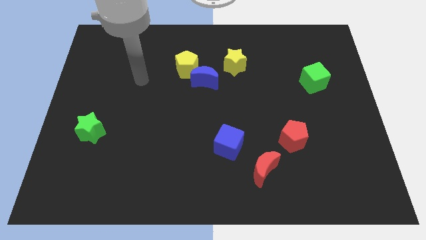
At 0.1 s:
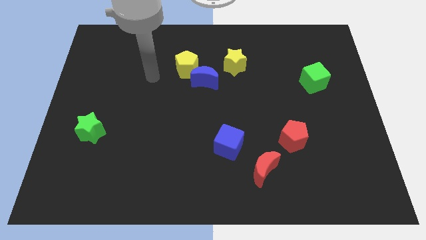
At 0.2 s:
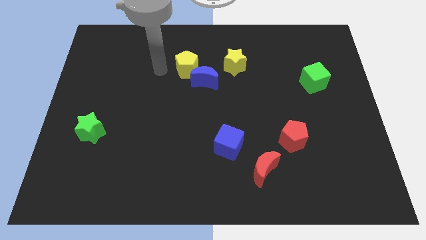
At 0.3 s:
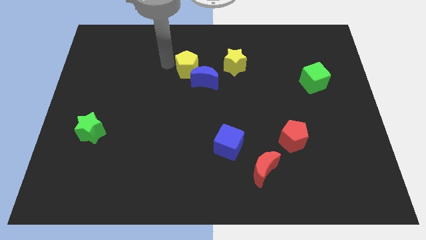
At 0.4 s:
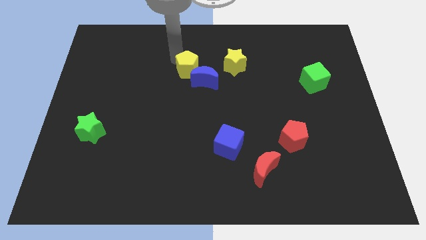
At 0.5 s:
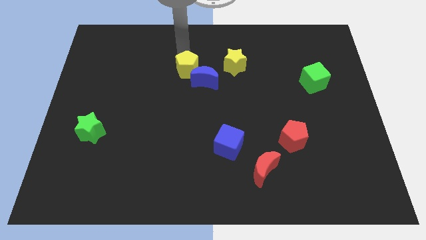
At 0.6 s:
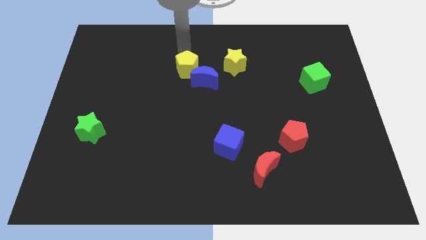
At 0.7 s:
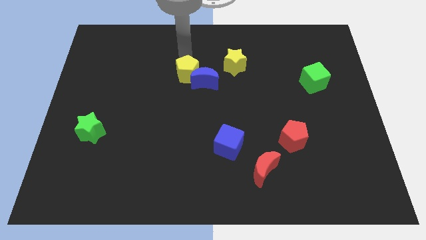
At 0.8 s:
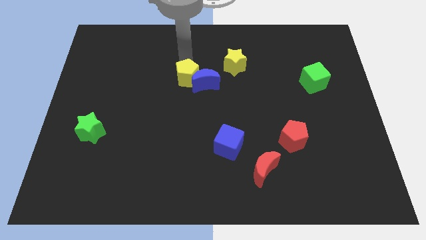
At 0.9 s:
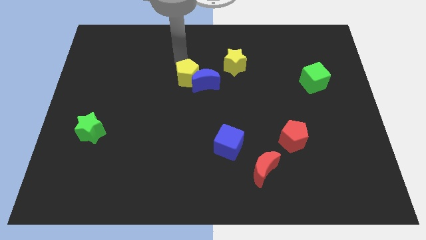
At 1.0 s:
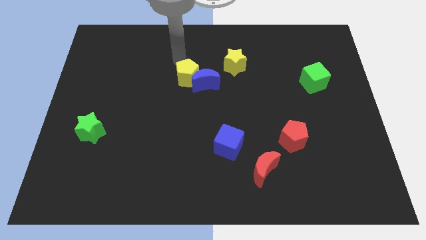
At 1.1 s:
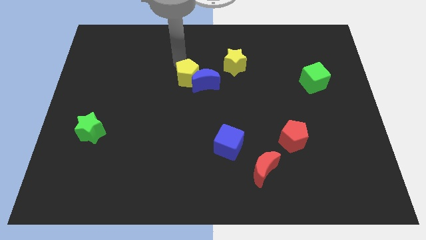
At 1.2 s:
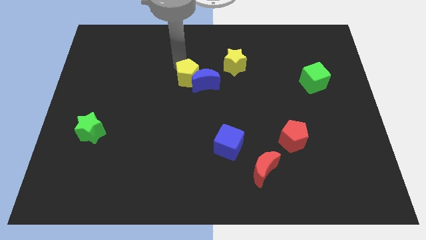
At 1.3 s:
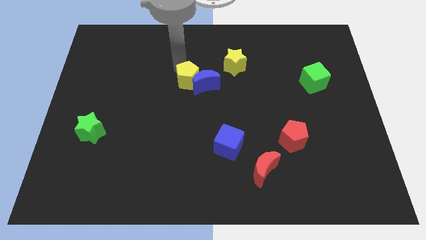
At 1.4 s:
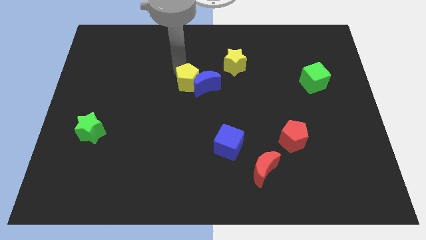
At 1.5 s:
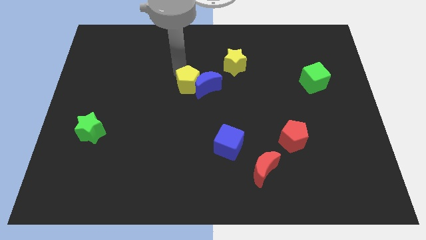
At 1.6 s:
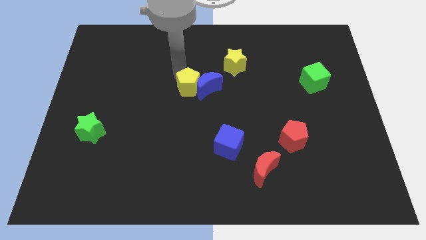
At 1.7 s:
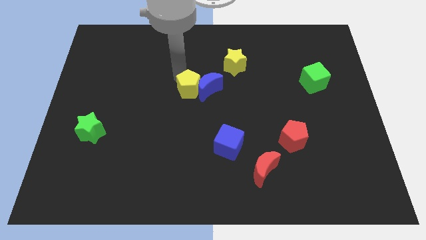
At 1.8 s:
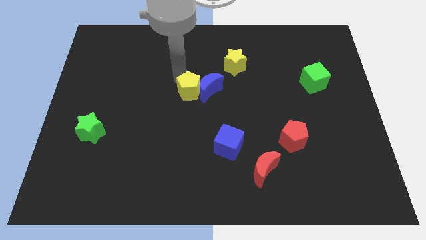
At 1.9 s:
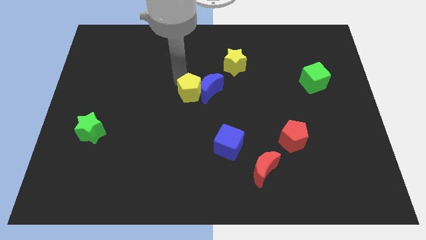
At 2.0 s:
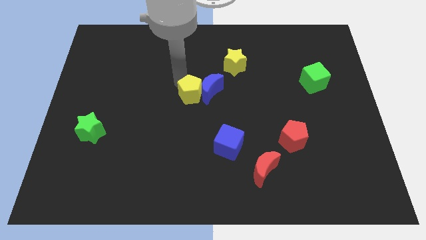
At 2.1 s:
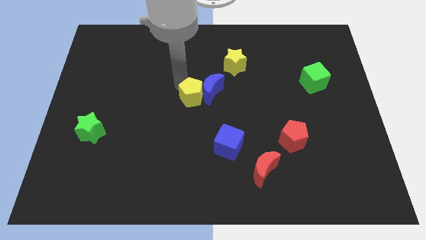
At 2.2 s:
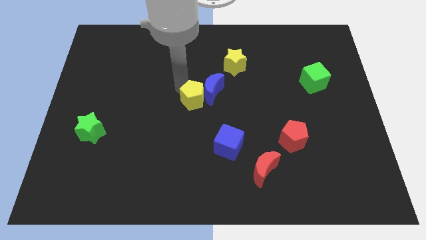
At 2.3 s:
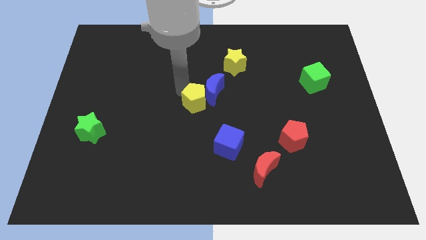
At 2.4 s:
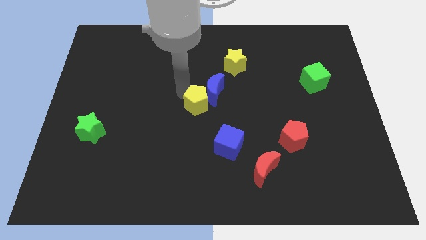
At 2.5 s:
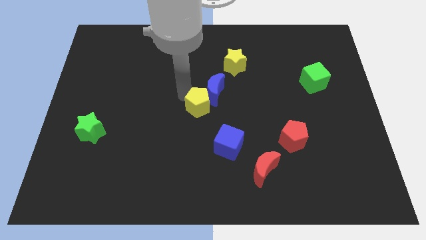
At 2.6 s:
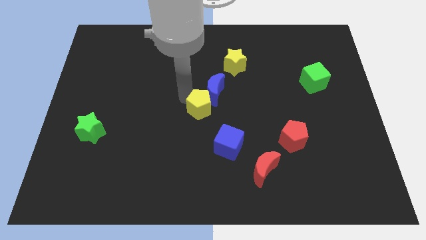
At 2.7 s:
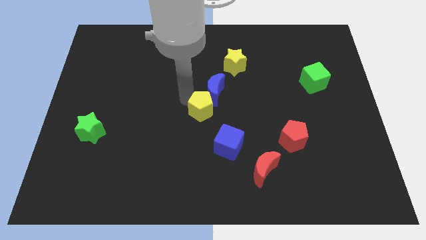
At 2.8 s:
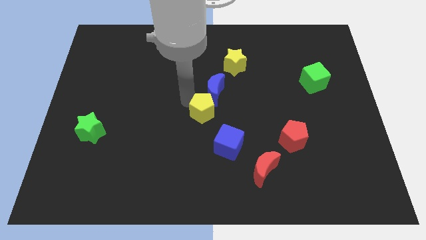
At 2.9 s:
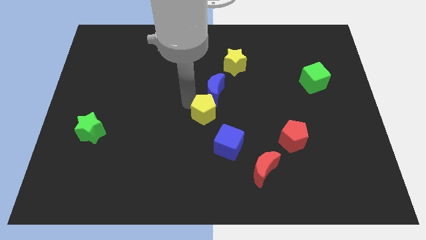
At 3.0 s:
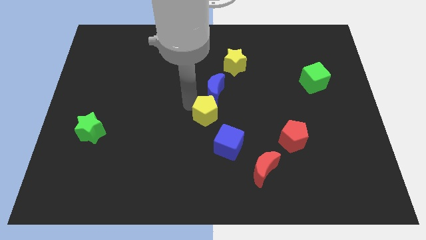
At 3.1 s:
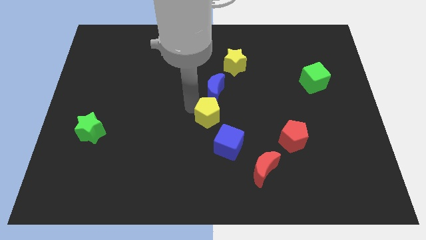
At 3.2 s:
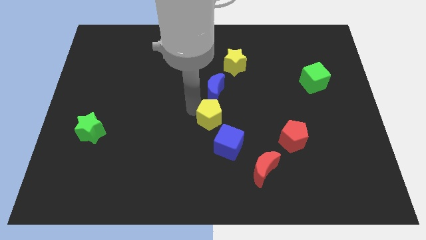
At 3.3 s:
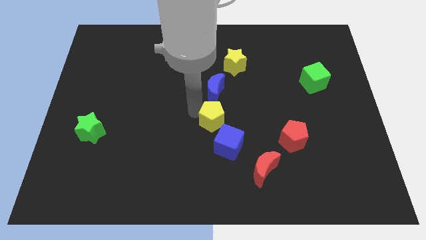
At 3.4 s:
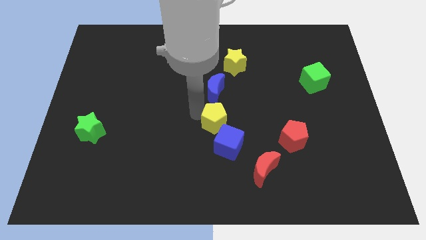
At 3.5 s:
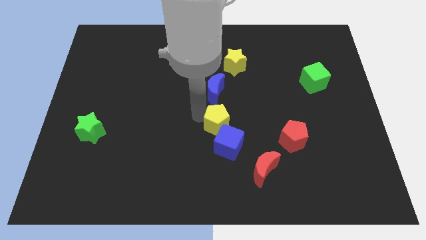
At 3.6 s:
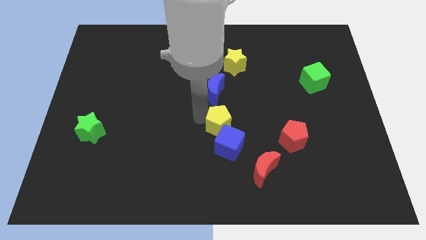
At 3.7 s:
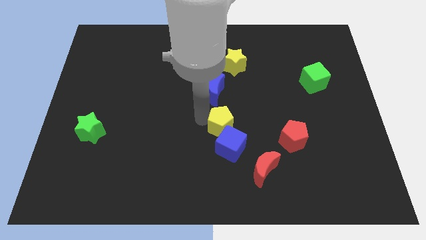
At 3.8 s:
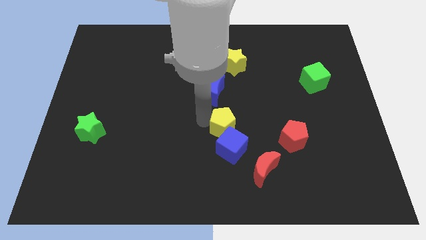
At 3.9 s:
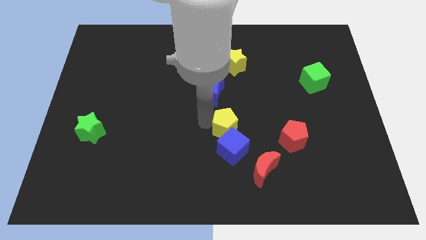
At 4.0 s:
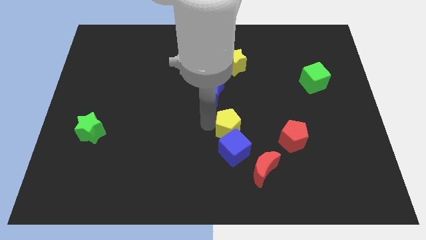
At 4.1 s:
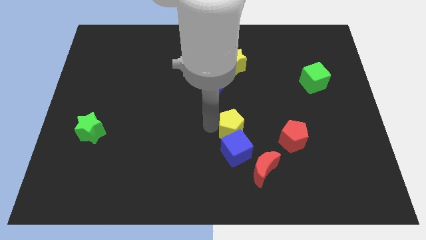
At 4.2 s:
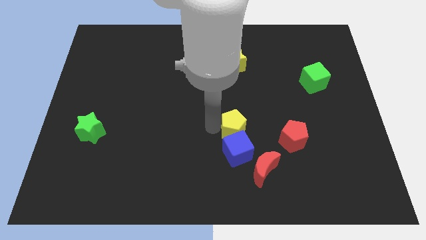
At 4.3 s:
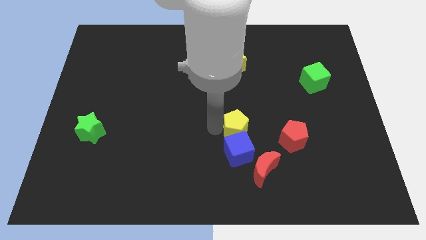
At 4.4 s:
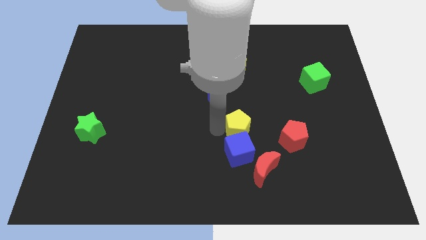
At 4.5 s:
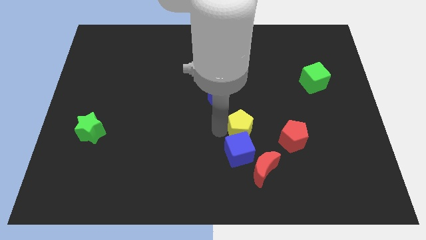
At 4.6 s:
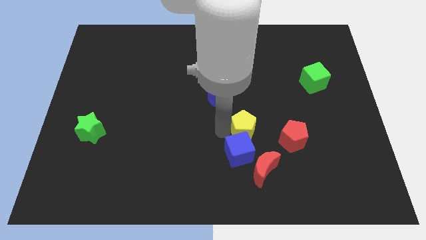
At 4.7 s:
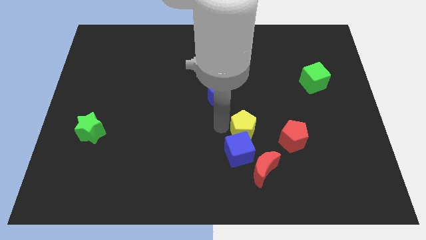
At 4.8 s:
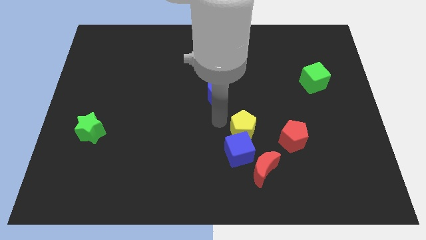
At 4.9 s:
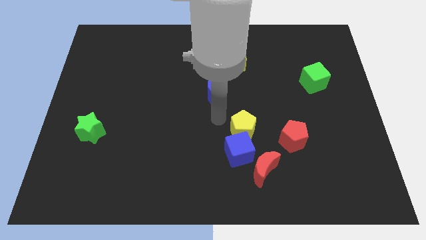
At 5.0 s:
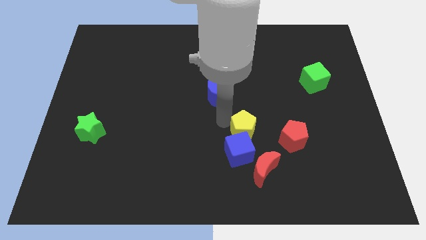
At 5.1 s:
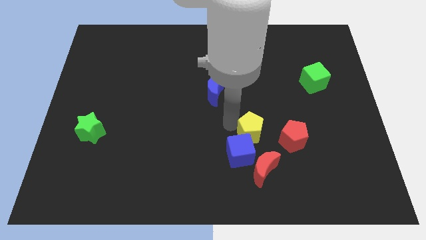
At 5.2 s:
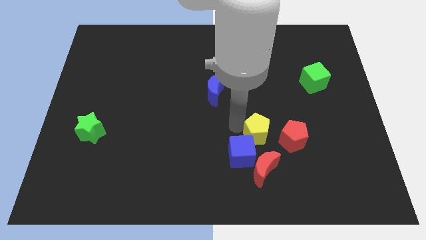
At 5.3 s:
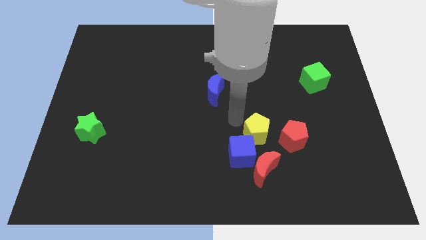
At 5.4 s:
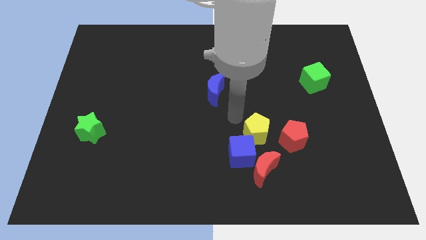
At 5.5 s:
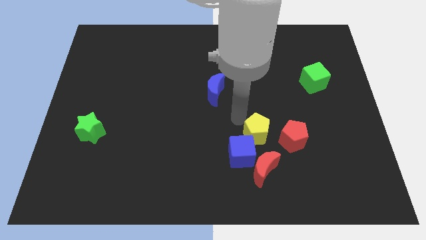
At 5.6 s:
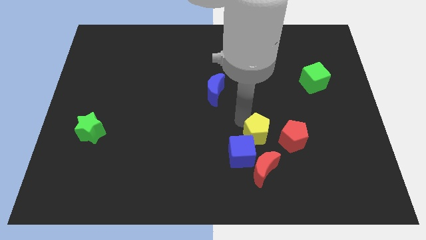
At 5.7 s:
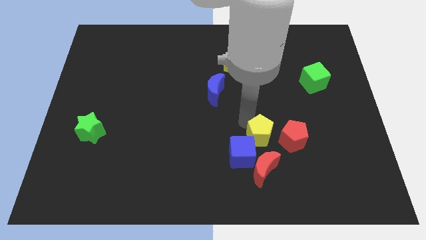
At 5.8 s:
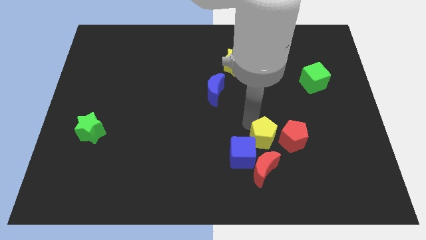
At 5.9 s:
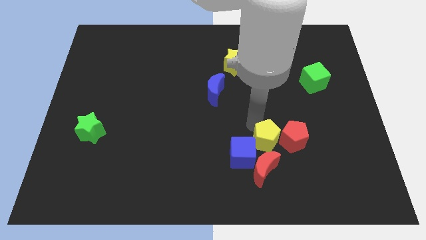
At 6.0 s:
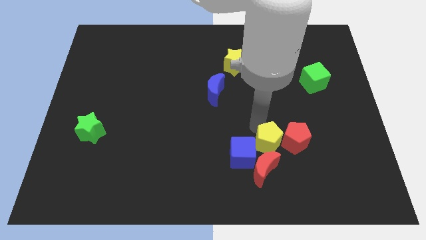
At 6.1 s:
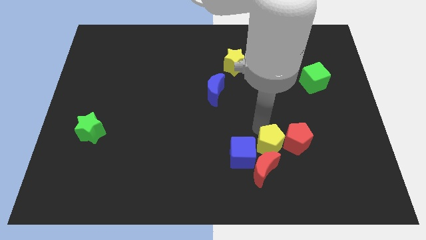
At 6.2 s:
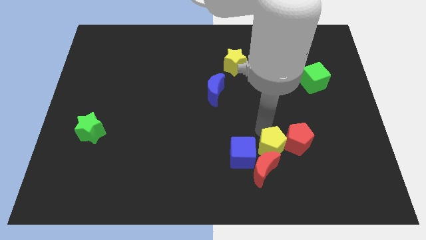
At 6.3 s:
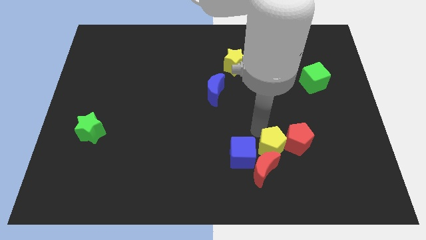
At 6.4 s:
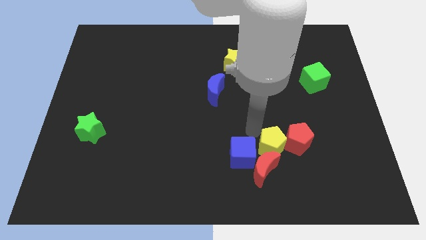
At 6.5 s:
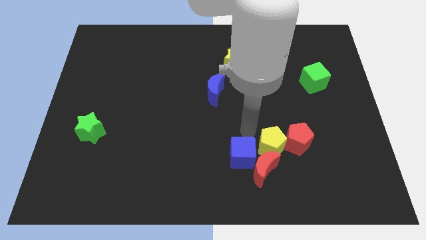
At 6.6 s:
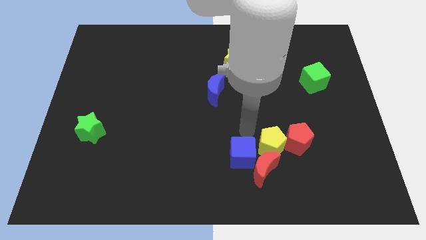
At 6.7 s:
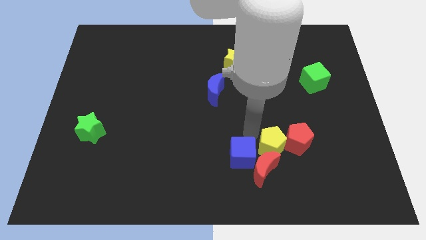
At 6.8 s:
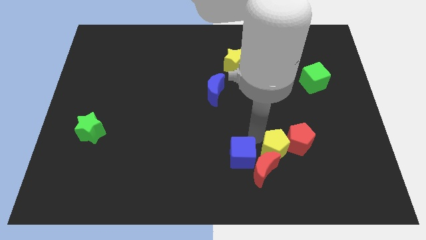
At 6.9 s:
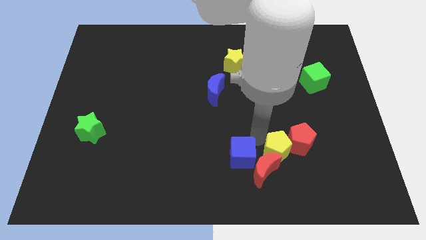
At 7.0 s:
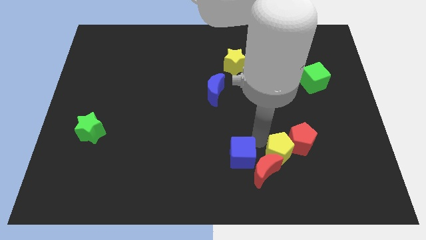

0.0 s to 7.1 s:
slide the yellow pentagon to the right side of the red moon

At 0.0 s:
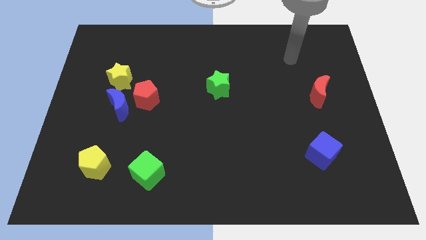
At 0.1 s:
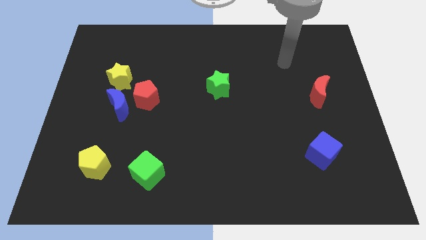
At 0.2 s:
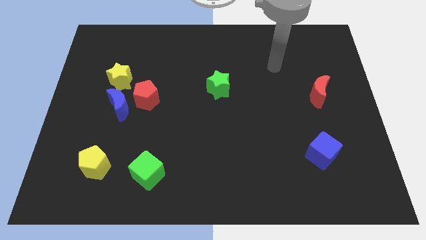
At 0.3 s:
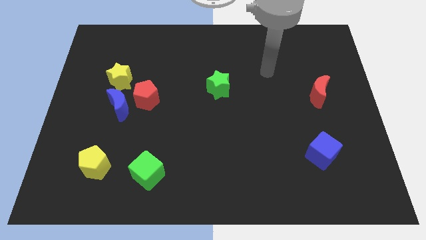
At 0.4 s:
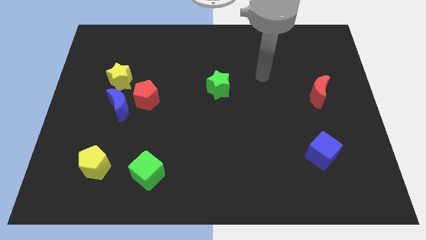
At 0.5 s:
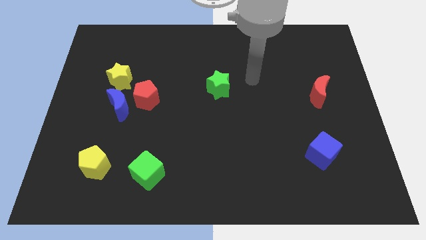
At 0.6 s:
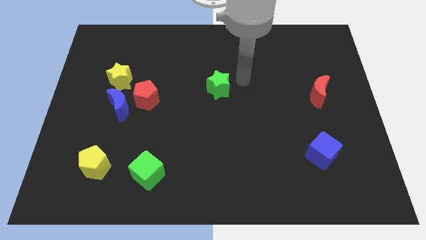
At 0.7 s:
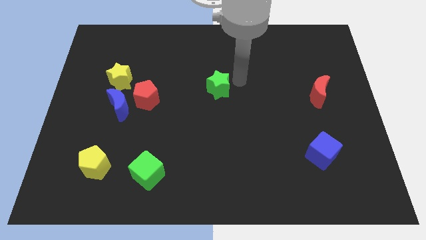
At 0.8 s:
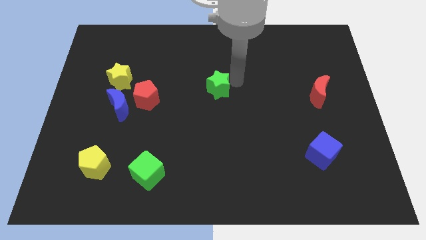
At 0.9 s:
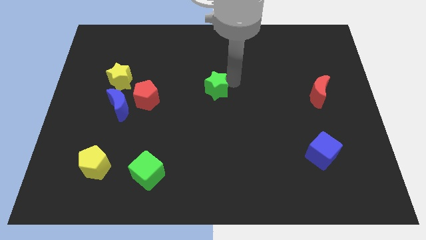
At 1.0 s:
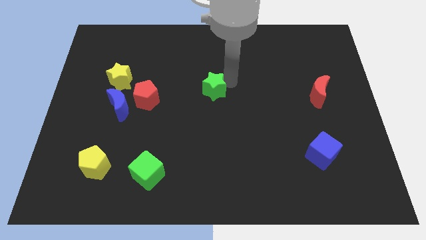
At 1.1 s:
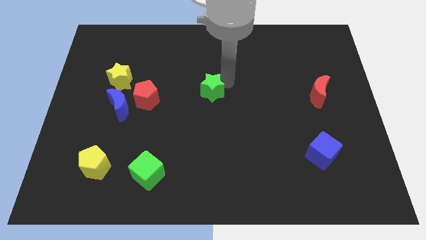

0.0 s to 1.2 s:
push the green star to the right of the red pentagon
